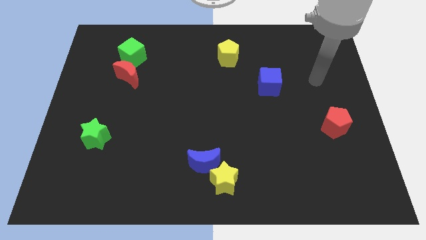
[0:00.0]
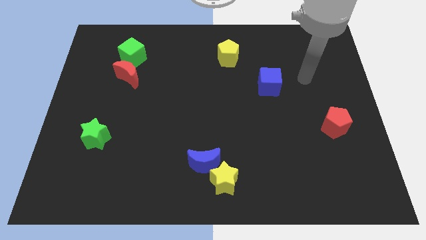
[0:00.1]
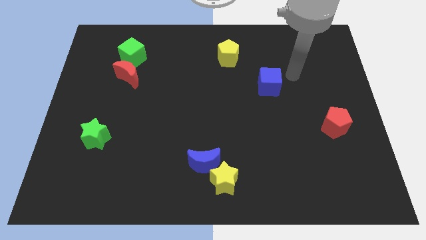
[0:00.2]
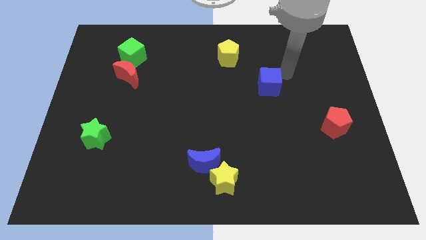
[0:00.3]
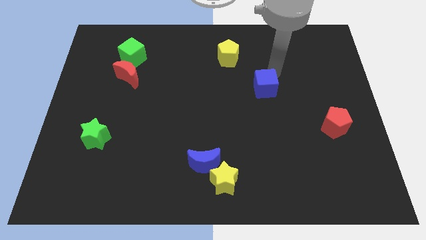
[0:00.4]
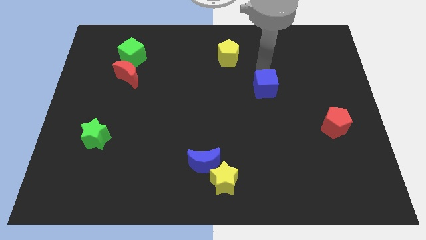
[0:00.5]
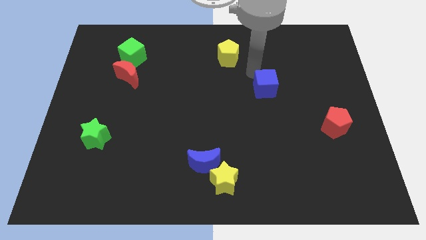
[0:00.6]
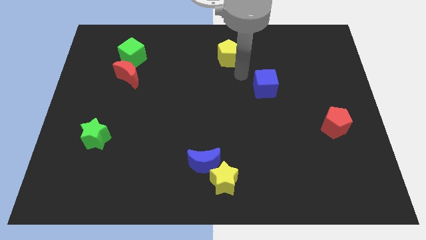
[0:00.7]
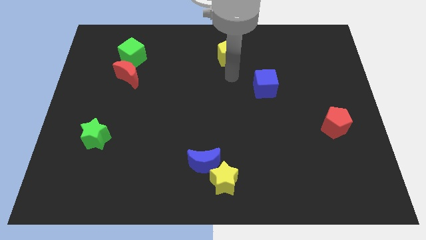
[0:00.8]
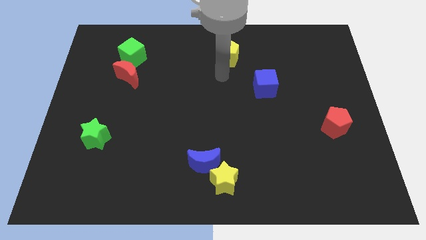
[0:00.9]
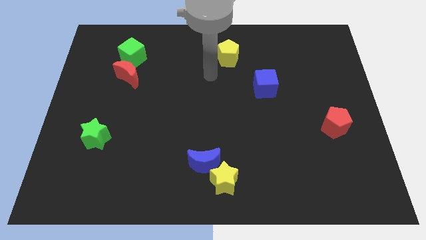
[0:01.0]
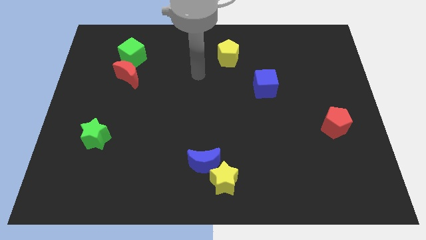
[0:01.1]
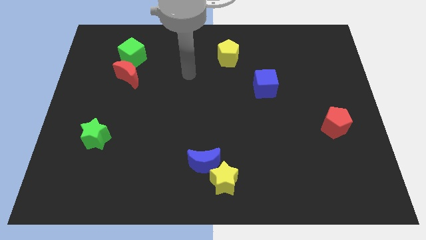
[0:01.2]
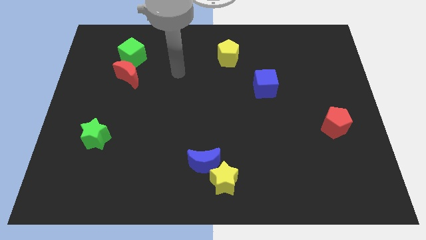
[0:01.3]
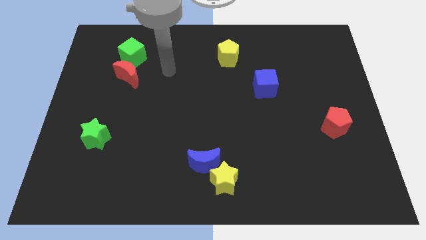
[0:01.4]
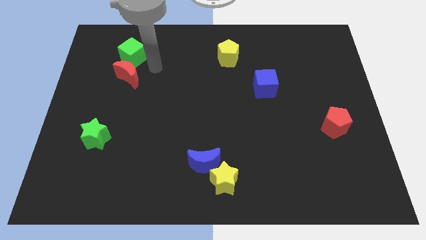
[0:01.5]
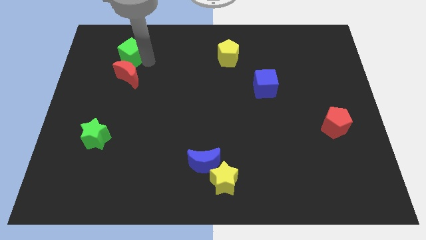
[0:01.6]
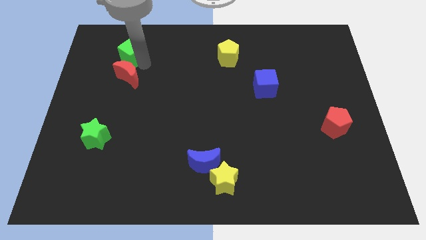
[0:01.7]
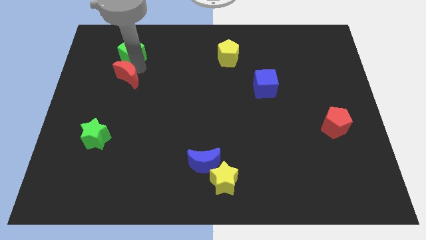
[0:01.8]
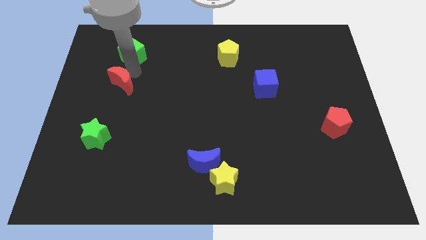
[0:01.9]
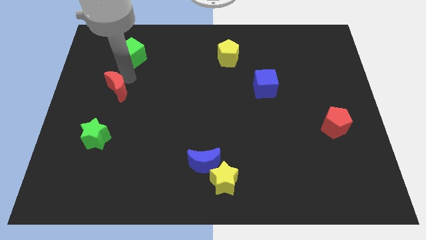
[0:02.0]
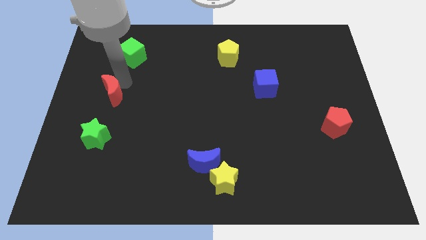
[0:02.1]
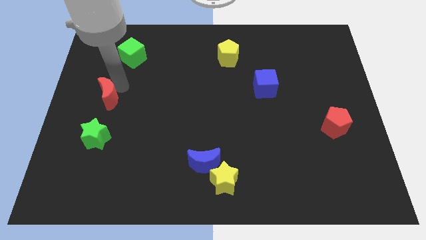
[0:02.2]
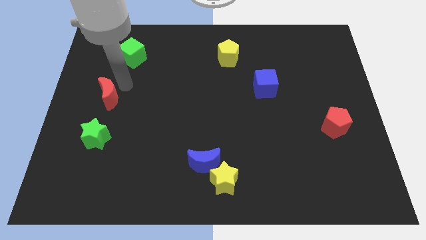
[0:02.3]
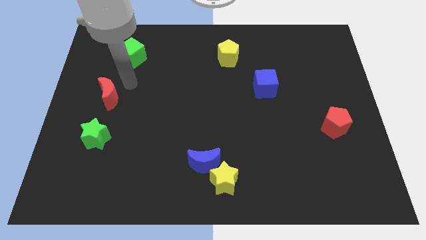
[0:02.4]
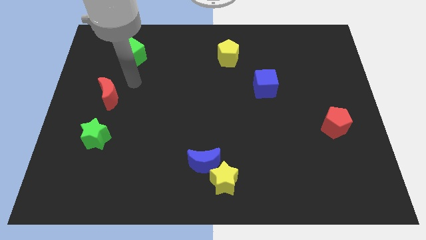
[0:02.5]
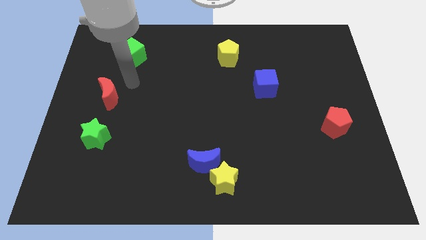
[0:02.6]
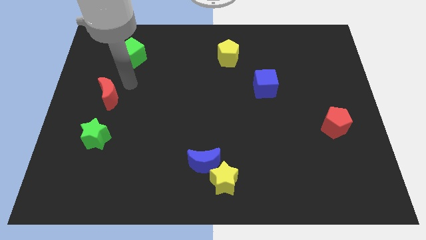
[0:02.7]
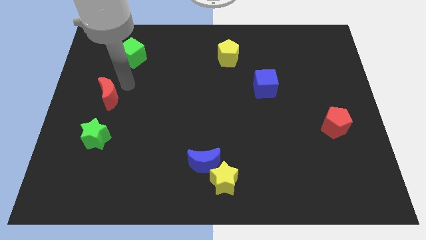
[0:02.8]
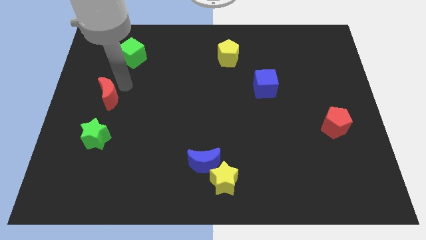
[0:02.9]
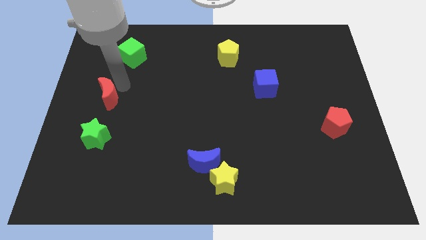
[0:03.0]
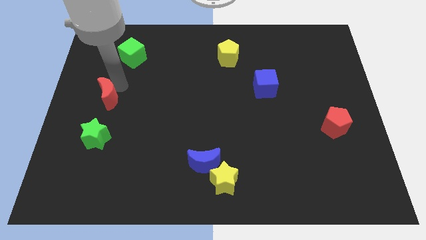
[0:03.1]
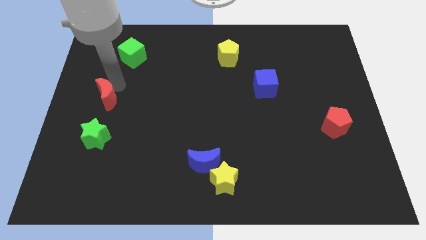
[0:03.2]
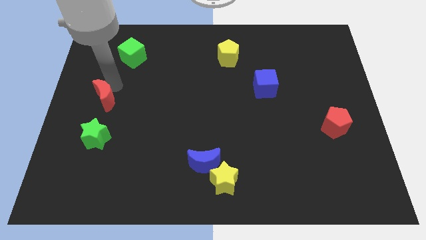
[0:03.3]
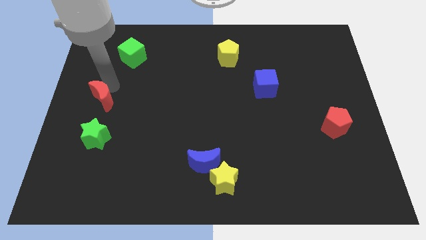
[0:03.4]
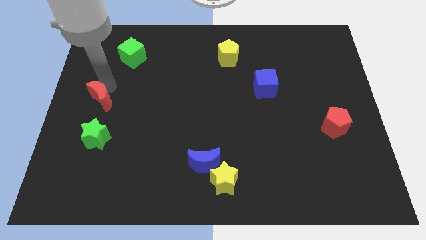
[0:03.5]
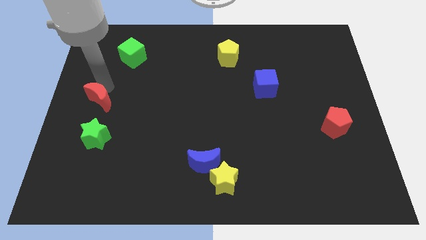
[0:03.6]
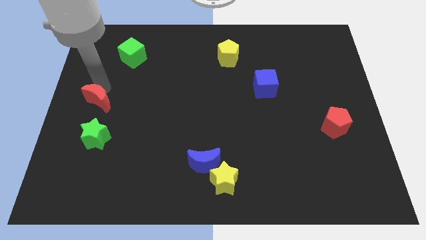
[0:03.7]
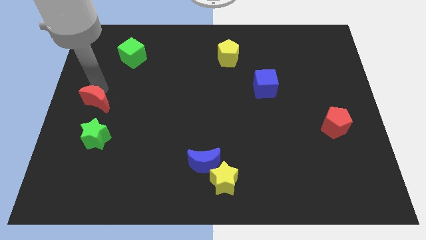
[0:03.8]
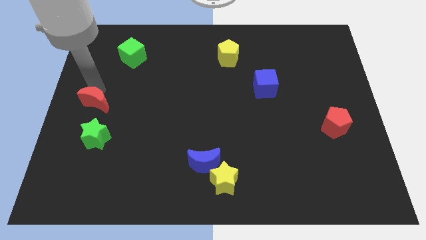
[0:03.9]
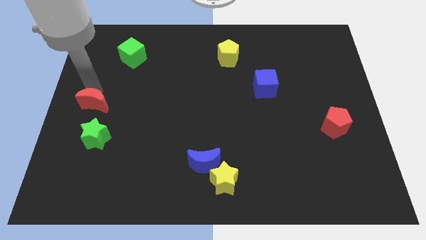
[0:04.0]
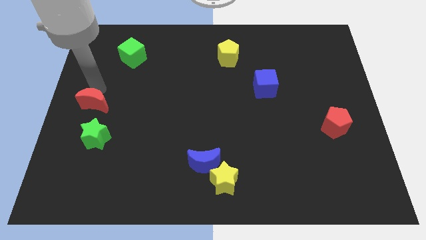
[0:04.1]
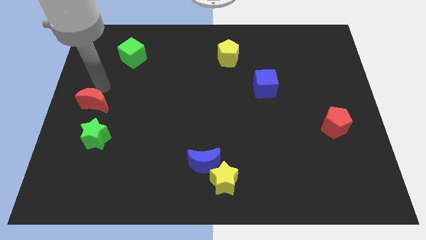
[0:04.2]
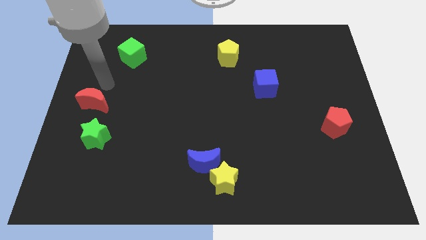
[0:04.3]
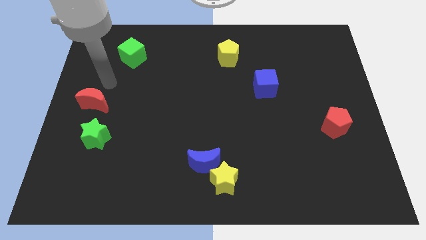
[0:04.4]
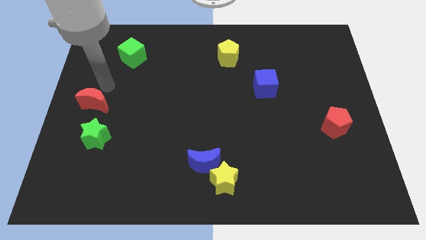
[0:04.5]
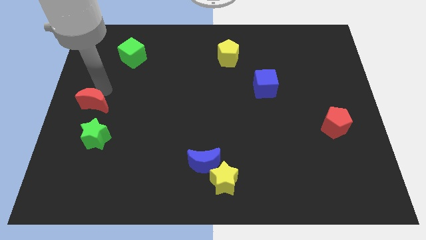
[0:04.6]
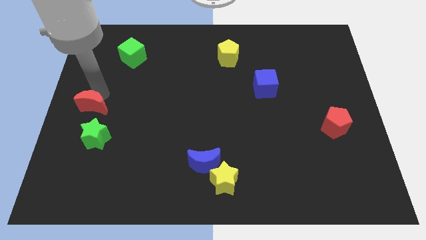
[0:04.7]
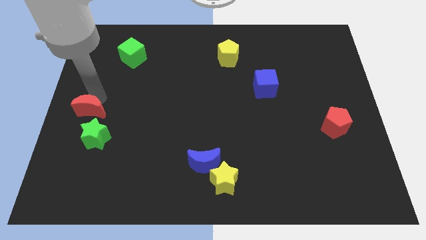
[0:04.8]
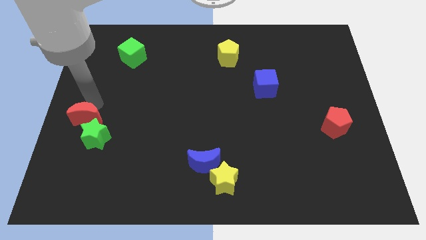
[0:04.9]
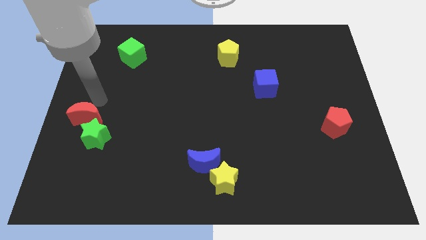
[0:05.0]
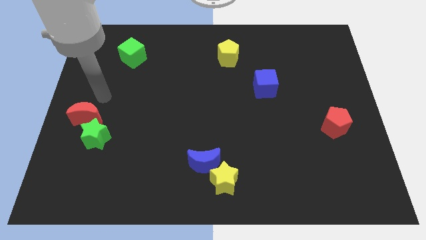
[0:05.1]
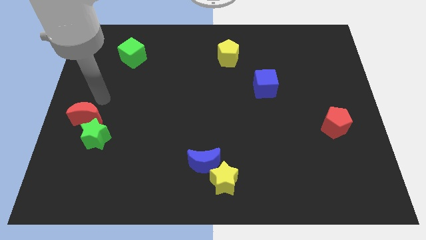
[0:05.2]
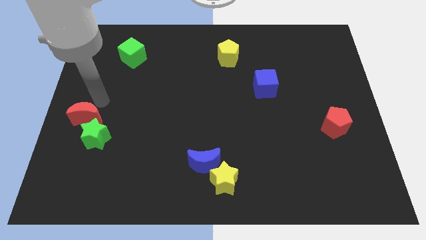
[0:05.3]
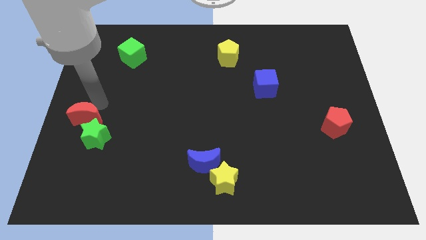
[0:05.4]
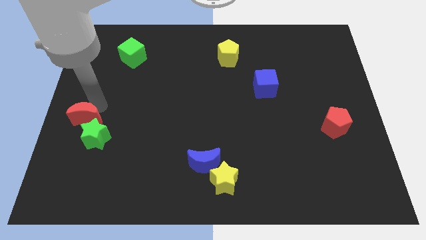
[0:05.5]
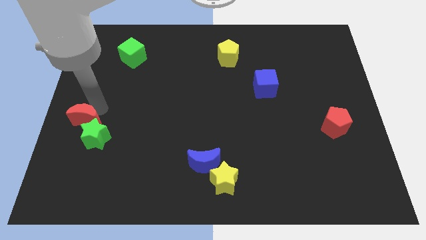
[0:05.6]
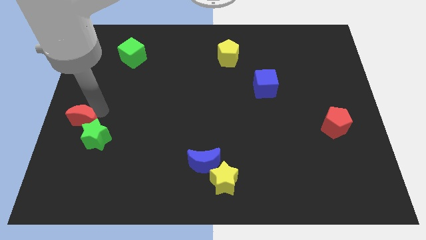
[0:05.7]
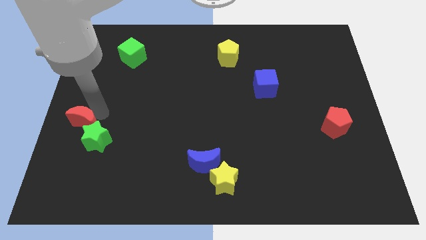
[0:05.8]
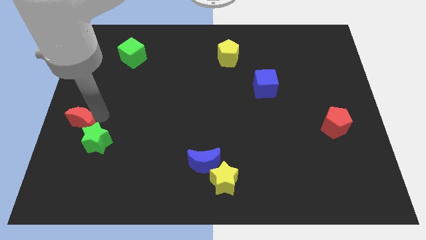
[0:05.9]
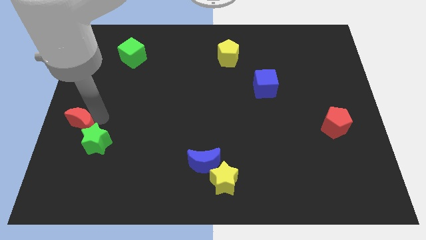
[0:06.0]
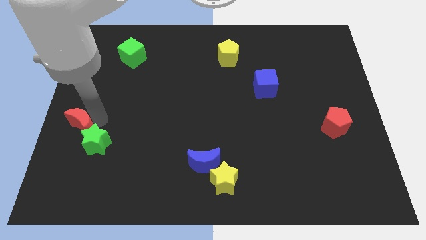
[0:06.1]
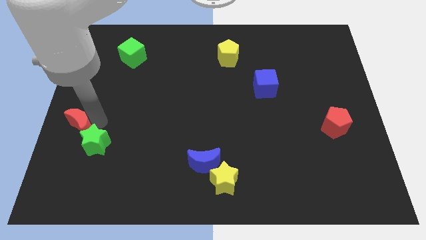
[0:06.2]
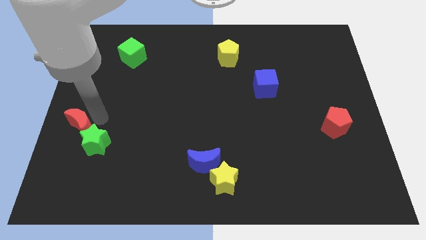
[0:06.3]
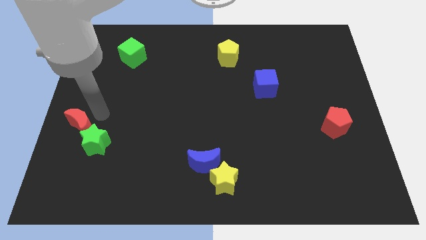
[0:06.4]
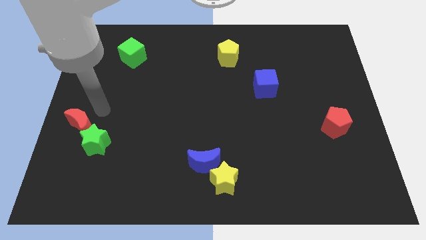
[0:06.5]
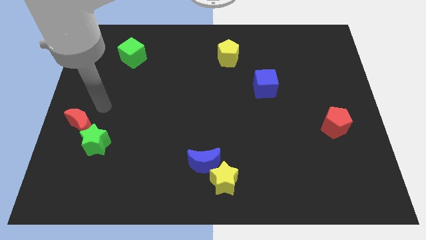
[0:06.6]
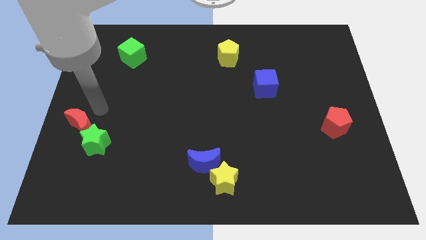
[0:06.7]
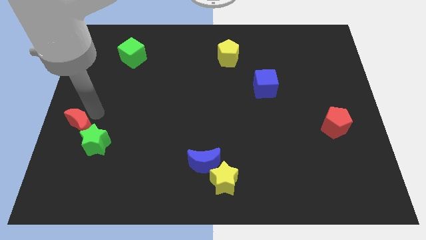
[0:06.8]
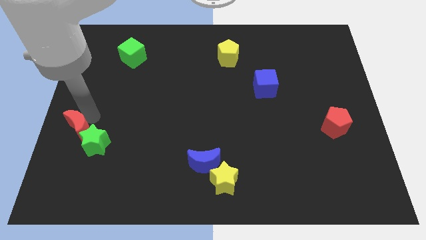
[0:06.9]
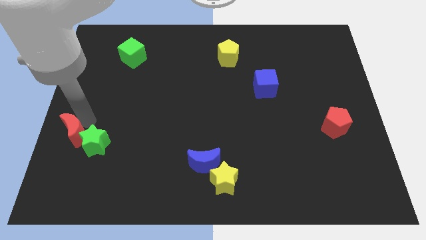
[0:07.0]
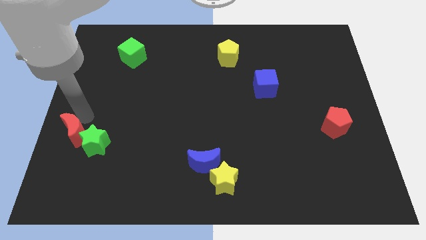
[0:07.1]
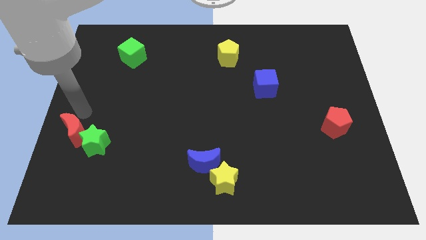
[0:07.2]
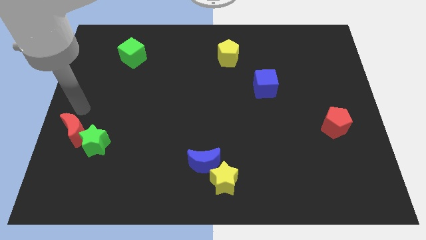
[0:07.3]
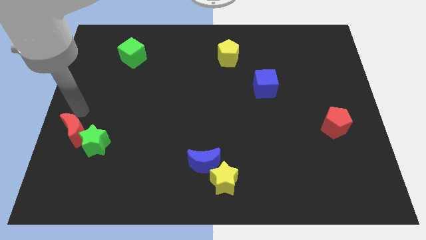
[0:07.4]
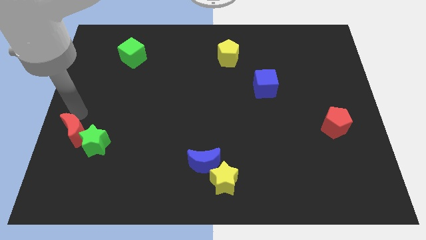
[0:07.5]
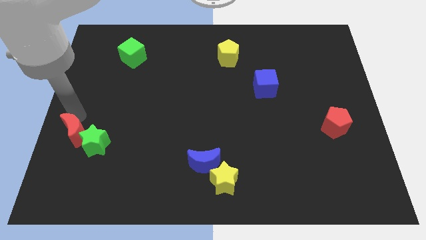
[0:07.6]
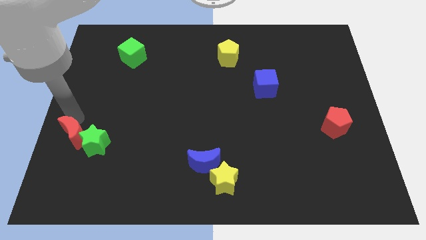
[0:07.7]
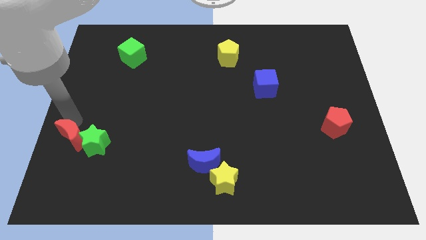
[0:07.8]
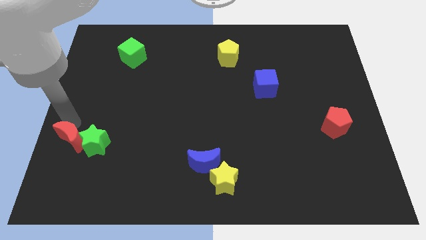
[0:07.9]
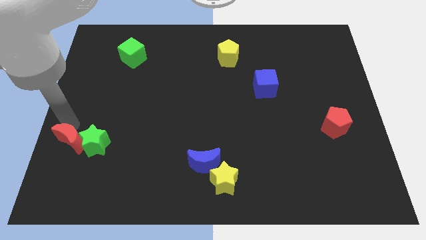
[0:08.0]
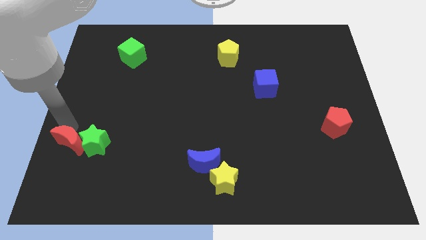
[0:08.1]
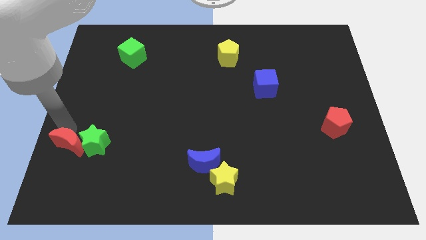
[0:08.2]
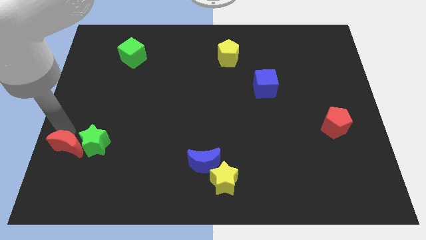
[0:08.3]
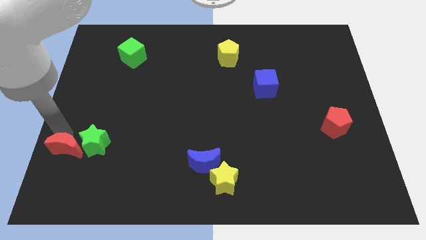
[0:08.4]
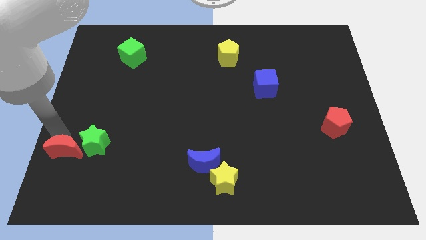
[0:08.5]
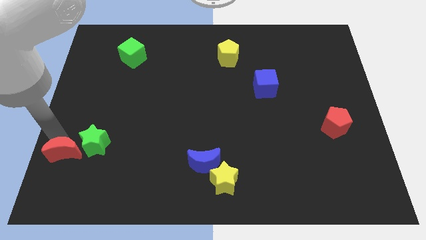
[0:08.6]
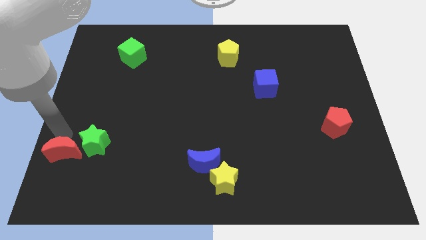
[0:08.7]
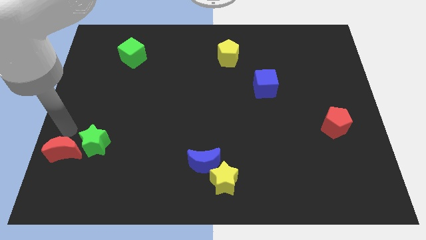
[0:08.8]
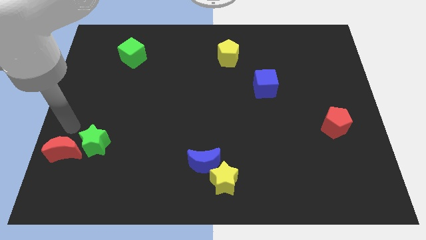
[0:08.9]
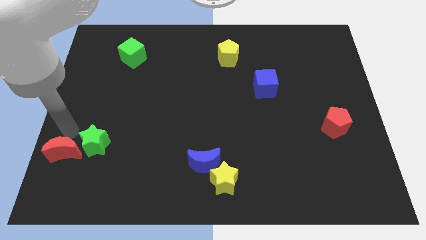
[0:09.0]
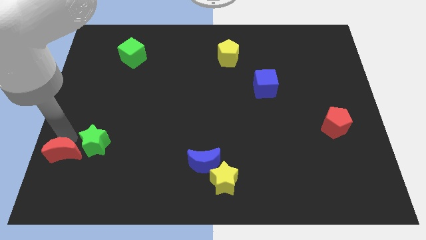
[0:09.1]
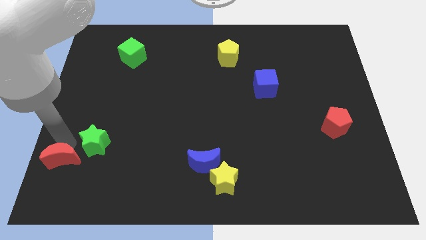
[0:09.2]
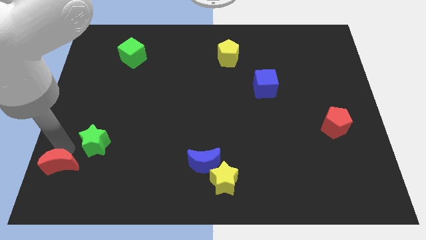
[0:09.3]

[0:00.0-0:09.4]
move the red moon to the bottom left
